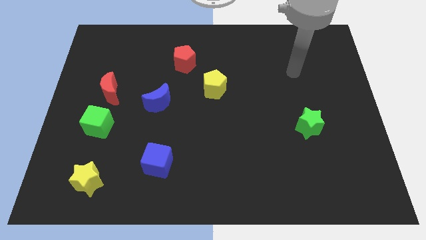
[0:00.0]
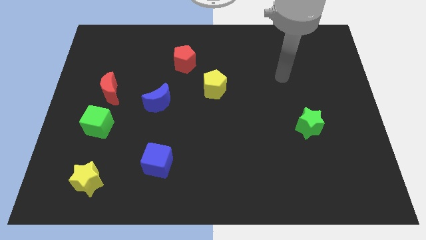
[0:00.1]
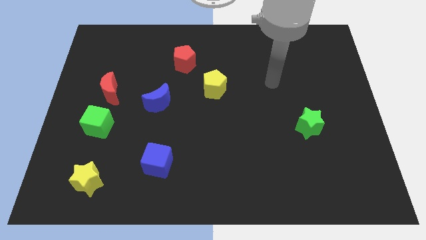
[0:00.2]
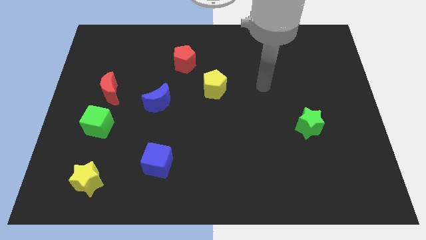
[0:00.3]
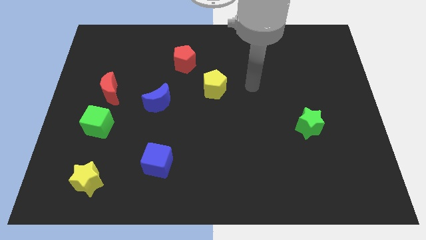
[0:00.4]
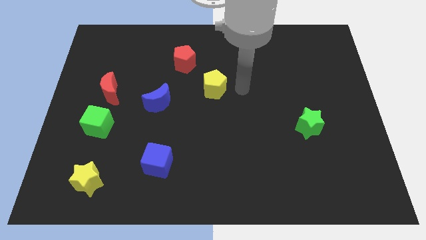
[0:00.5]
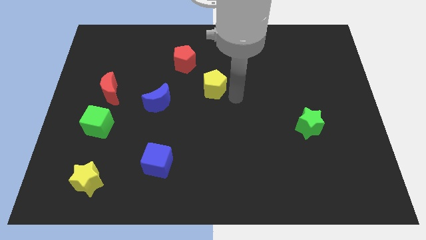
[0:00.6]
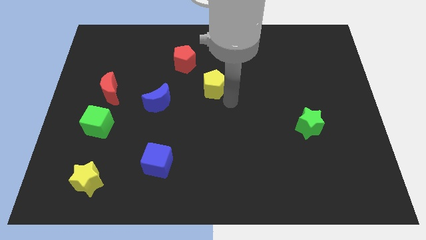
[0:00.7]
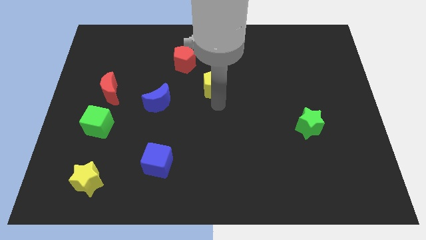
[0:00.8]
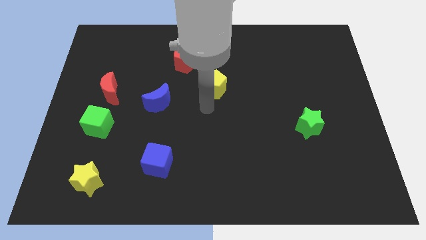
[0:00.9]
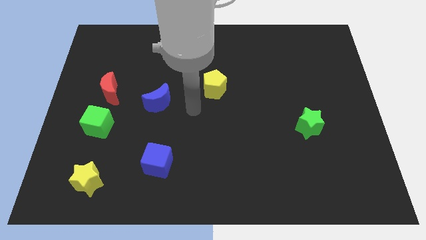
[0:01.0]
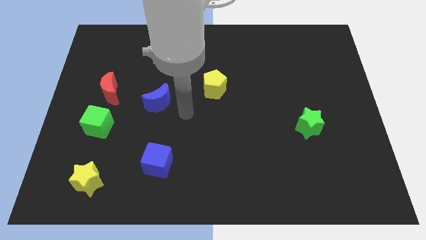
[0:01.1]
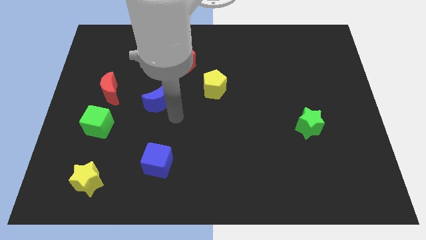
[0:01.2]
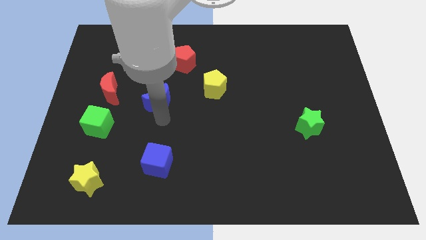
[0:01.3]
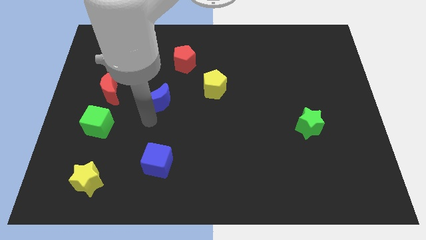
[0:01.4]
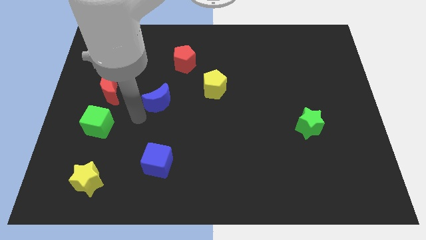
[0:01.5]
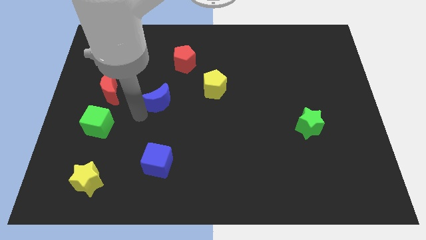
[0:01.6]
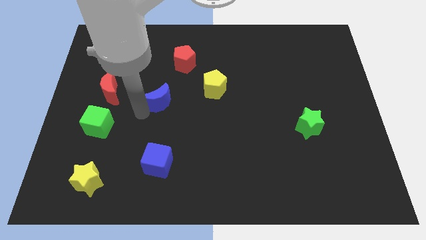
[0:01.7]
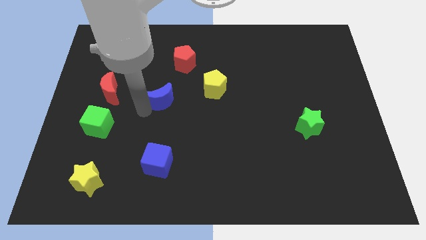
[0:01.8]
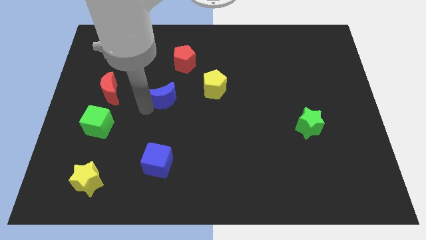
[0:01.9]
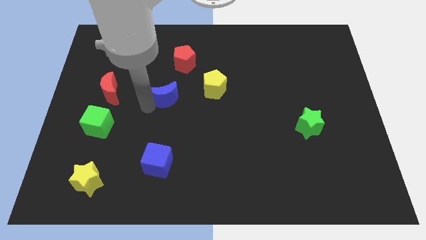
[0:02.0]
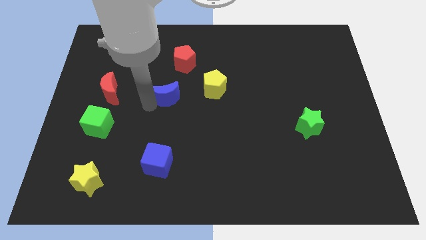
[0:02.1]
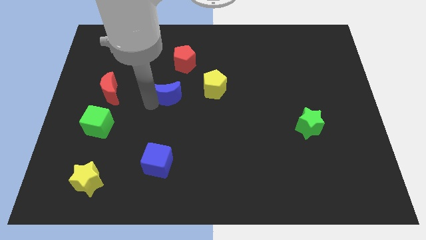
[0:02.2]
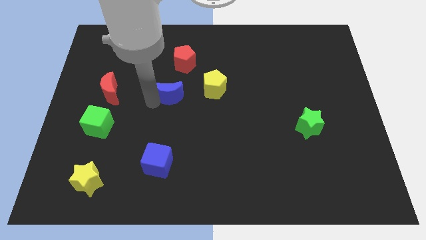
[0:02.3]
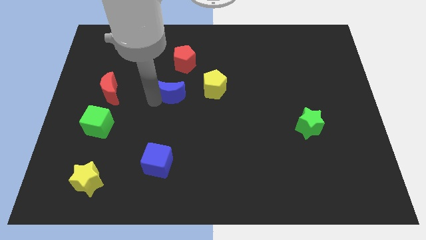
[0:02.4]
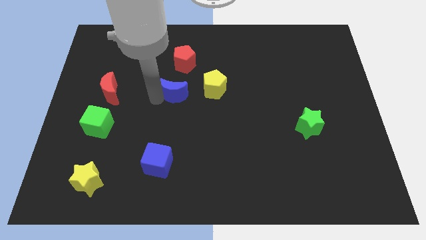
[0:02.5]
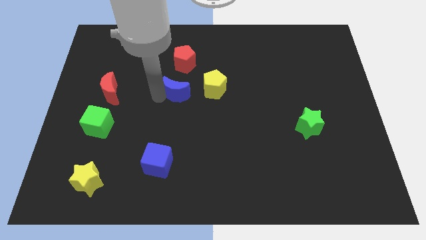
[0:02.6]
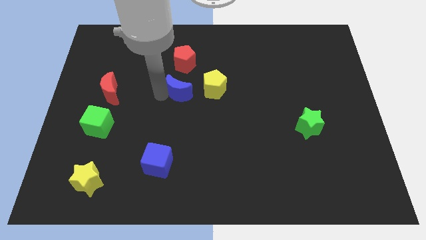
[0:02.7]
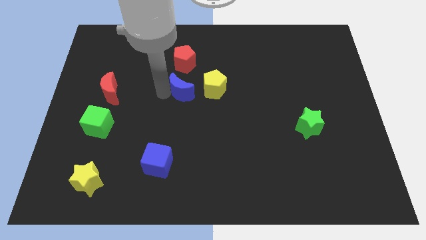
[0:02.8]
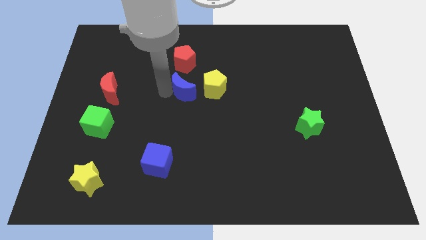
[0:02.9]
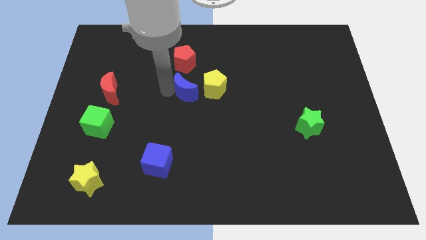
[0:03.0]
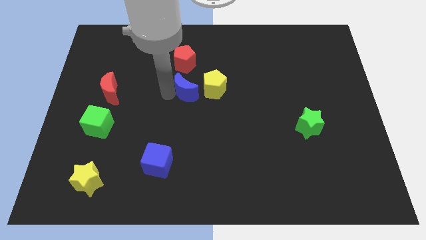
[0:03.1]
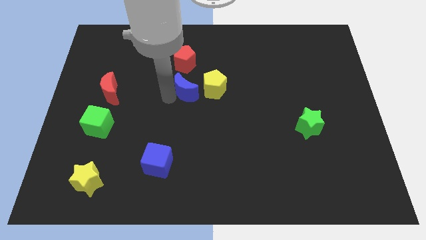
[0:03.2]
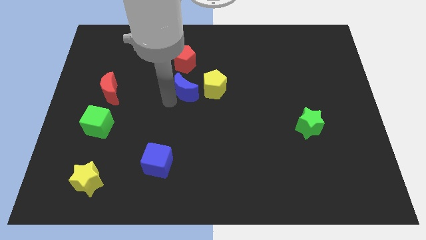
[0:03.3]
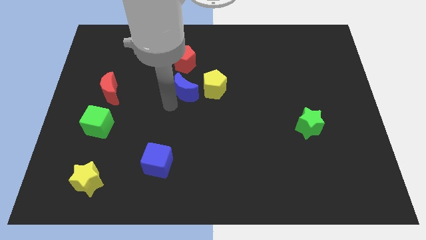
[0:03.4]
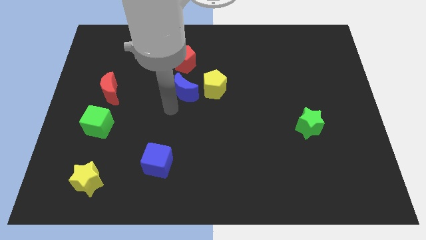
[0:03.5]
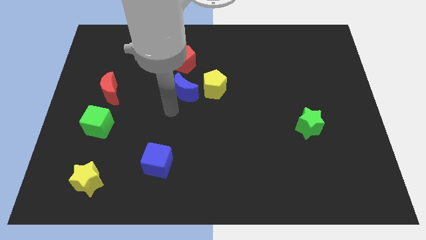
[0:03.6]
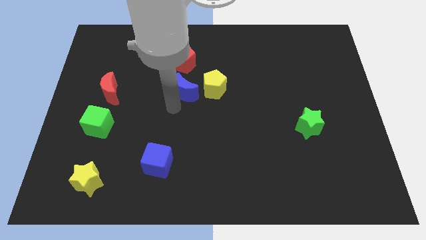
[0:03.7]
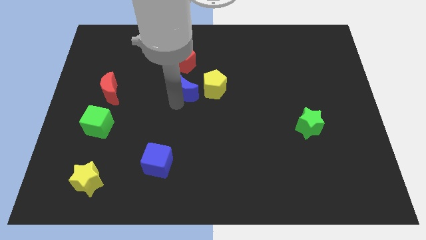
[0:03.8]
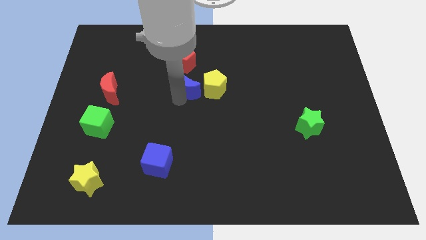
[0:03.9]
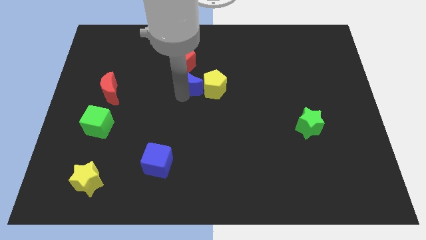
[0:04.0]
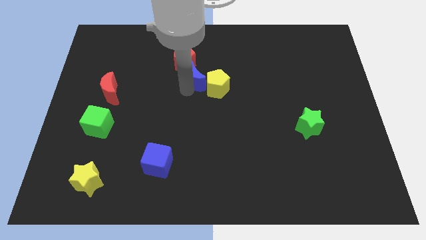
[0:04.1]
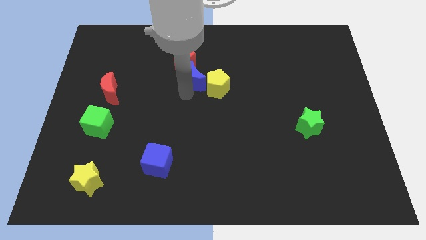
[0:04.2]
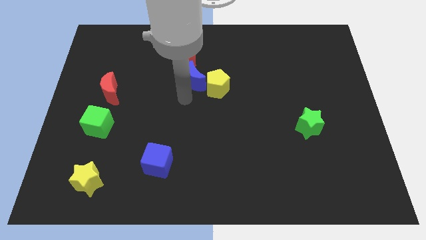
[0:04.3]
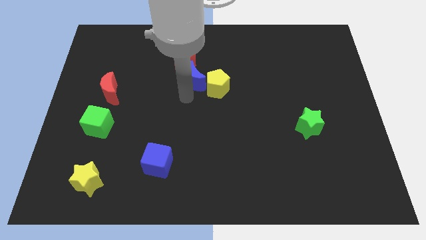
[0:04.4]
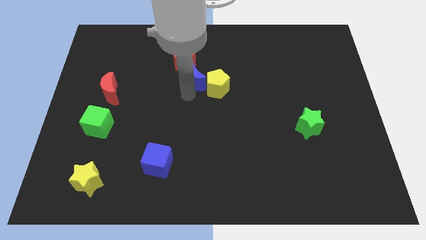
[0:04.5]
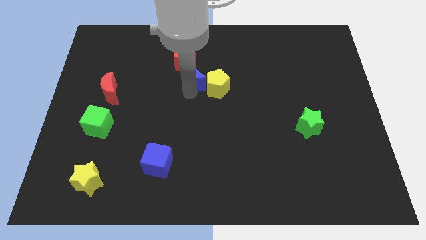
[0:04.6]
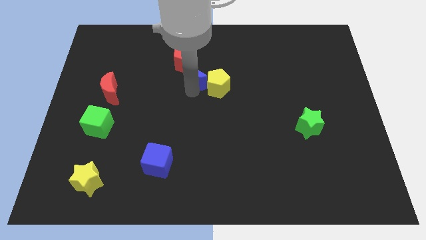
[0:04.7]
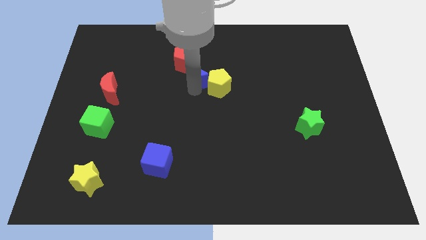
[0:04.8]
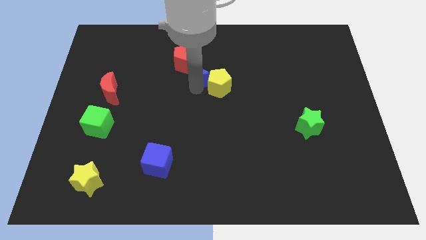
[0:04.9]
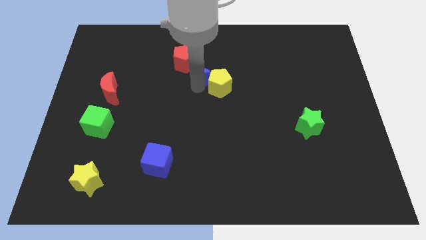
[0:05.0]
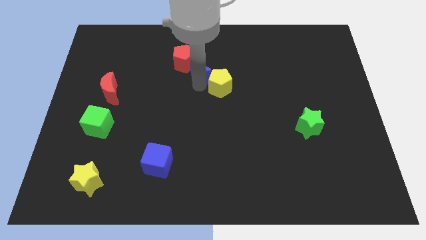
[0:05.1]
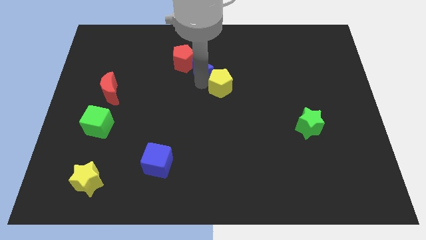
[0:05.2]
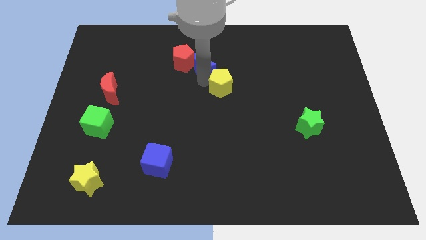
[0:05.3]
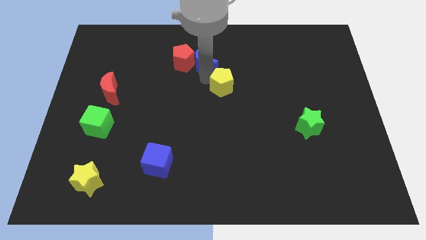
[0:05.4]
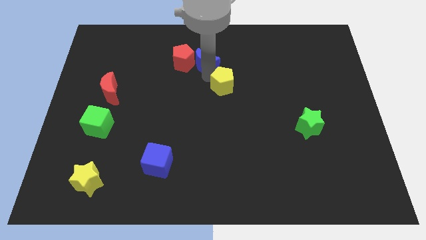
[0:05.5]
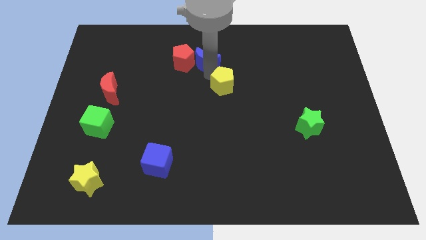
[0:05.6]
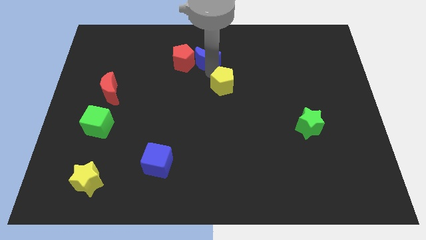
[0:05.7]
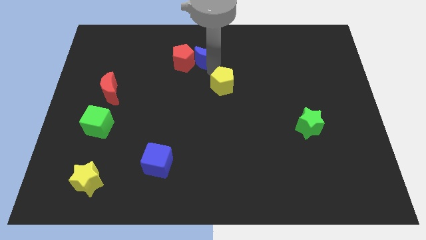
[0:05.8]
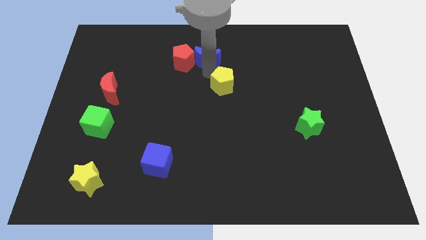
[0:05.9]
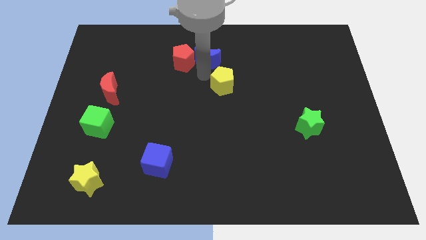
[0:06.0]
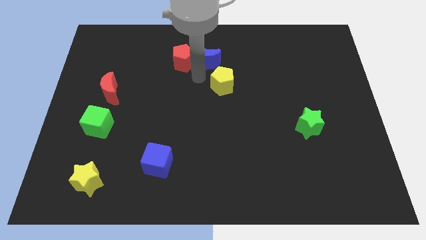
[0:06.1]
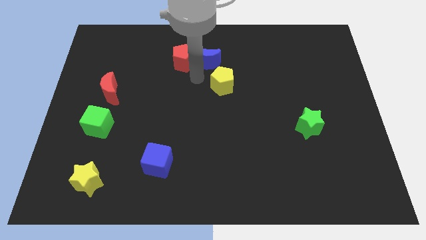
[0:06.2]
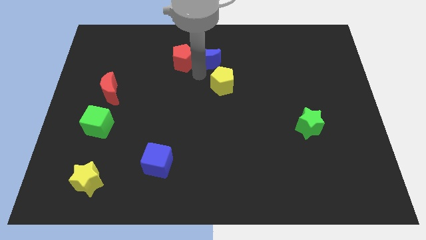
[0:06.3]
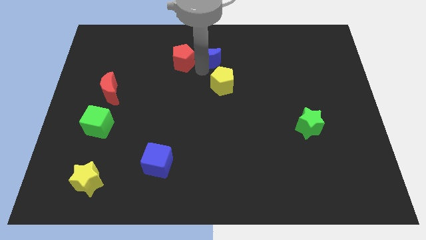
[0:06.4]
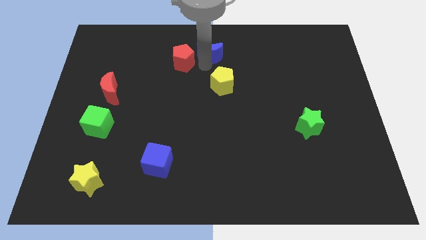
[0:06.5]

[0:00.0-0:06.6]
put the blue moon to the top
